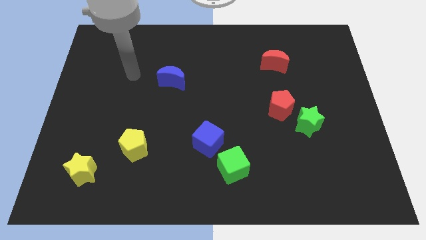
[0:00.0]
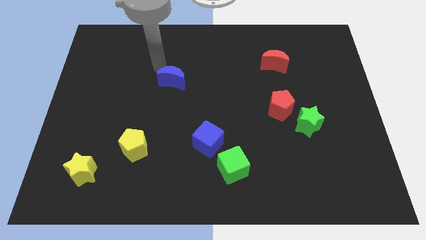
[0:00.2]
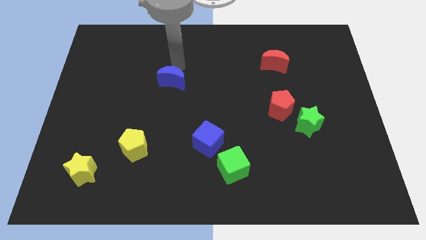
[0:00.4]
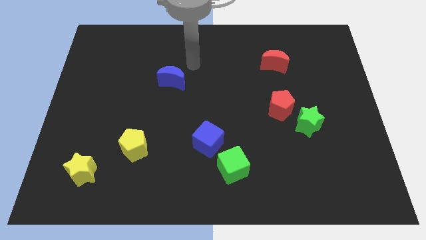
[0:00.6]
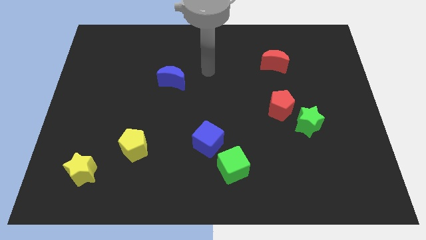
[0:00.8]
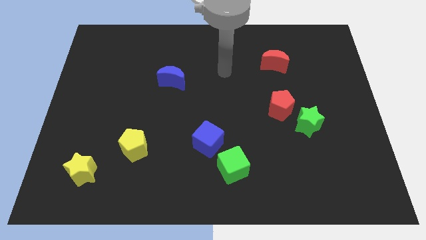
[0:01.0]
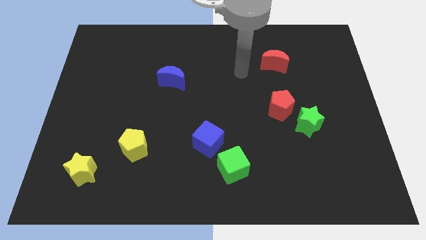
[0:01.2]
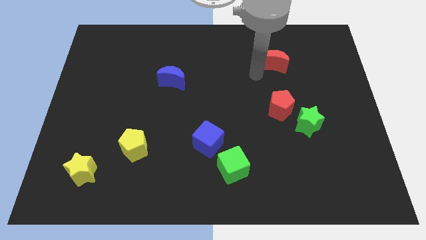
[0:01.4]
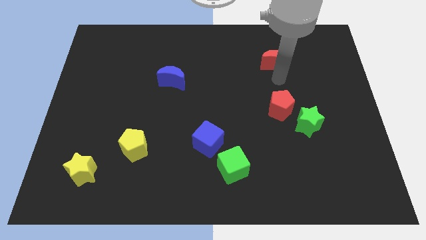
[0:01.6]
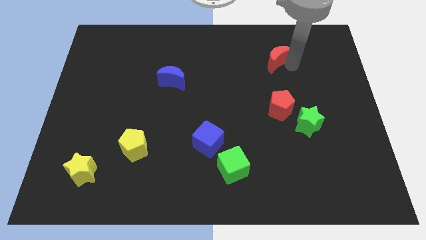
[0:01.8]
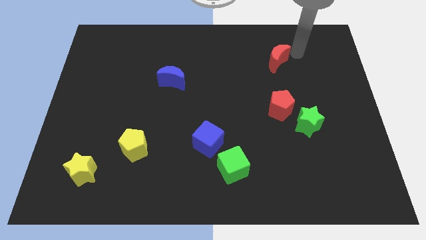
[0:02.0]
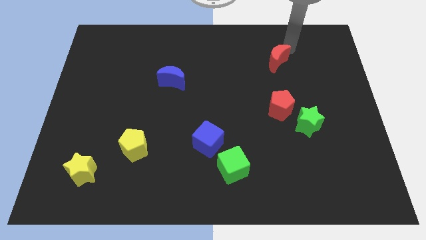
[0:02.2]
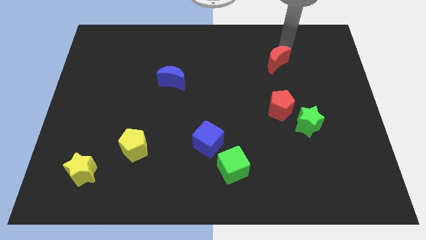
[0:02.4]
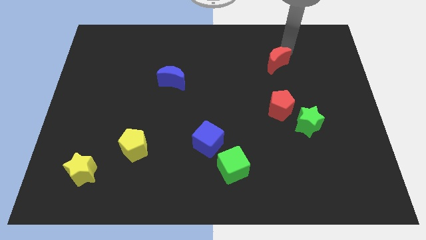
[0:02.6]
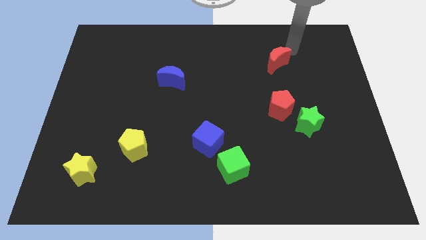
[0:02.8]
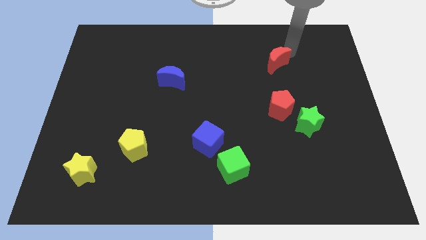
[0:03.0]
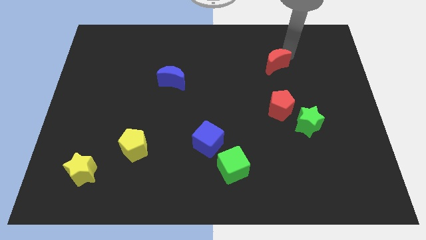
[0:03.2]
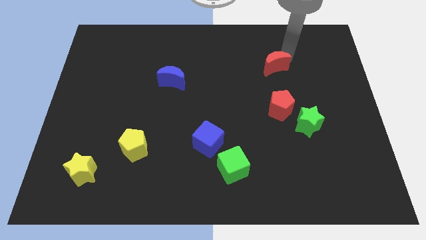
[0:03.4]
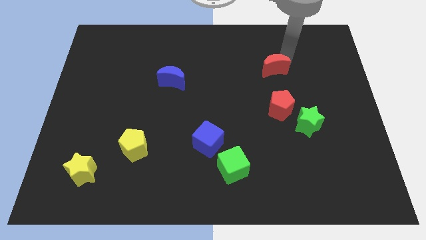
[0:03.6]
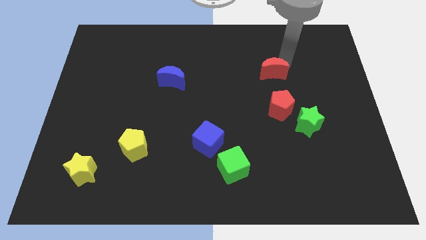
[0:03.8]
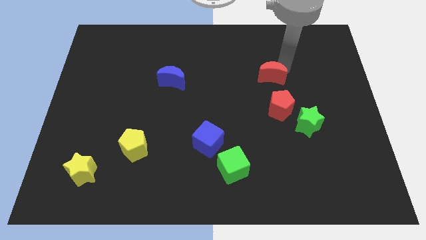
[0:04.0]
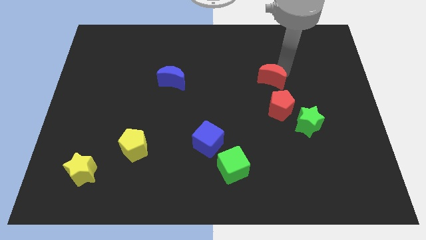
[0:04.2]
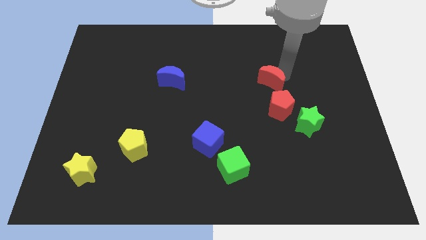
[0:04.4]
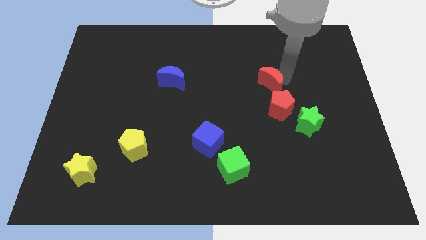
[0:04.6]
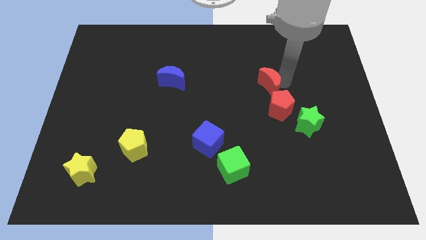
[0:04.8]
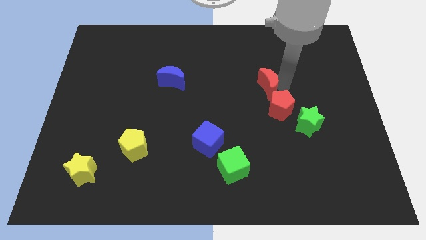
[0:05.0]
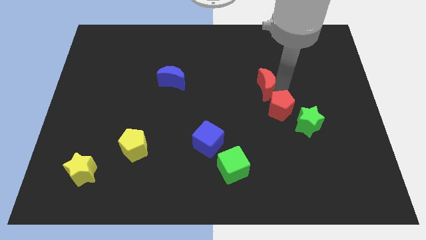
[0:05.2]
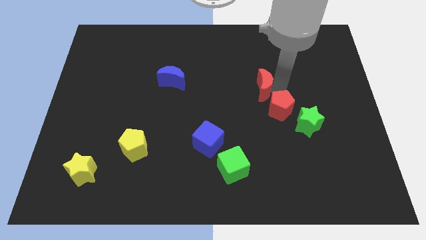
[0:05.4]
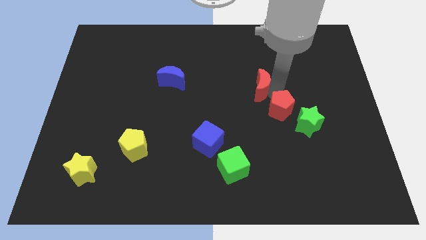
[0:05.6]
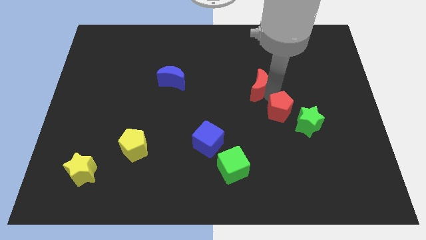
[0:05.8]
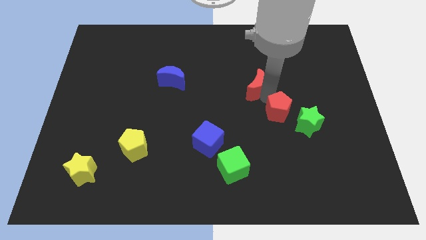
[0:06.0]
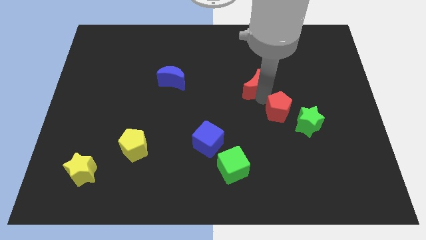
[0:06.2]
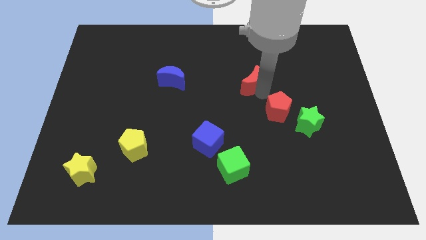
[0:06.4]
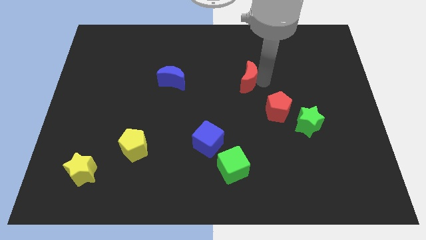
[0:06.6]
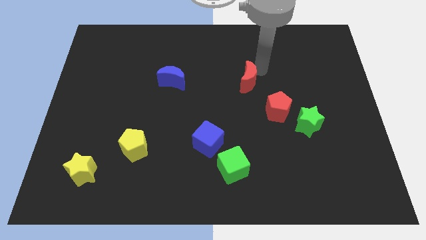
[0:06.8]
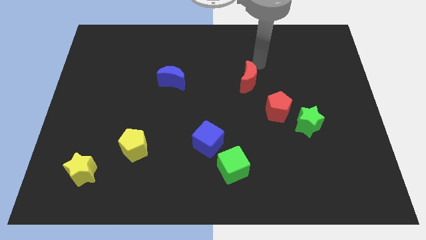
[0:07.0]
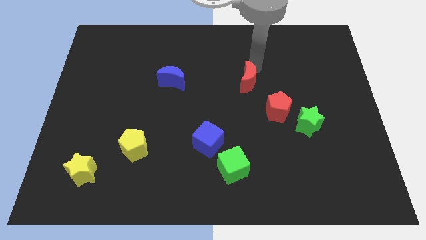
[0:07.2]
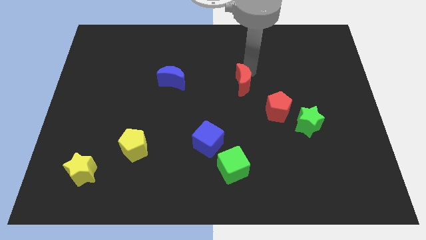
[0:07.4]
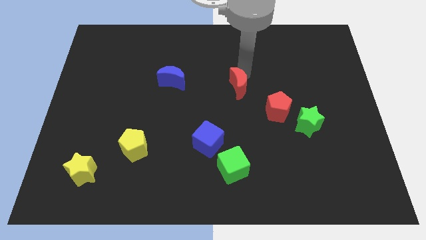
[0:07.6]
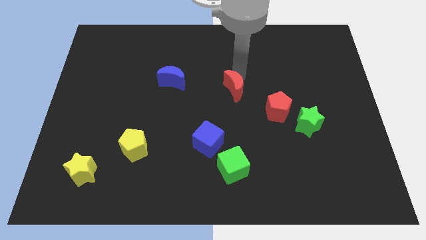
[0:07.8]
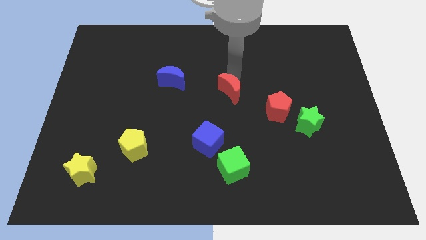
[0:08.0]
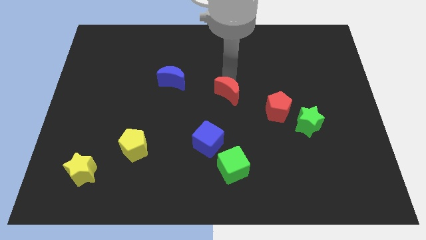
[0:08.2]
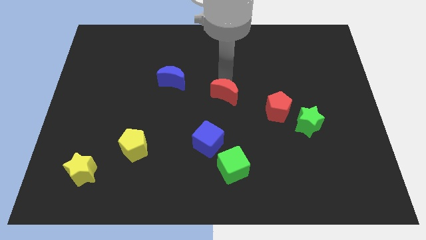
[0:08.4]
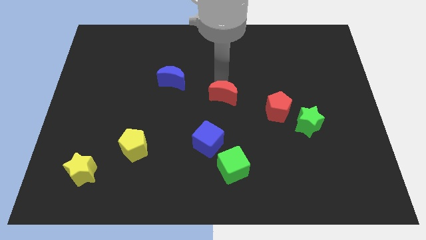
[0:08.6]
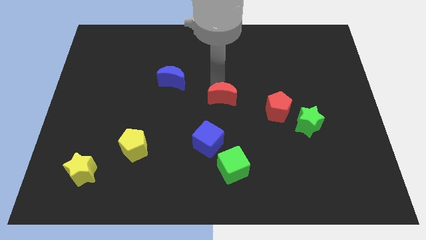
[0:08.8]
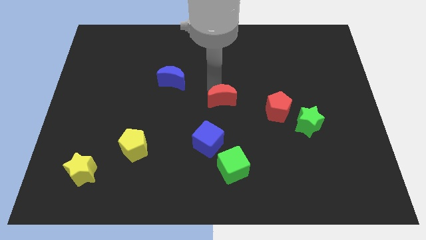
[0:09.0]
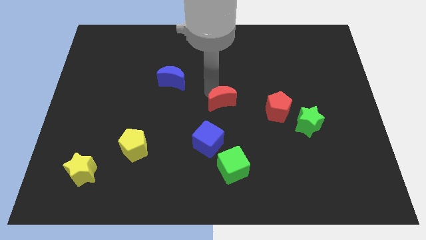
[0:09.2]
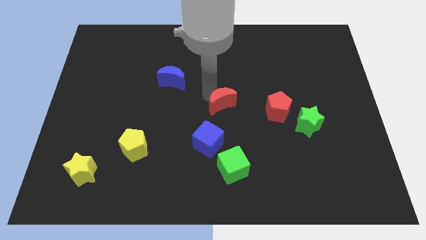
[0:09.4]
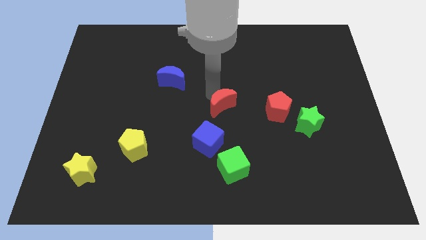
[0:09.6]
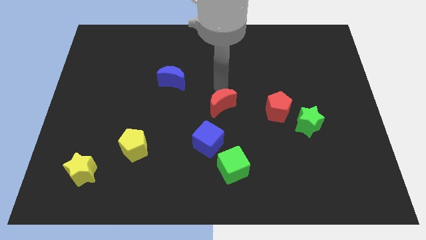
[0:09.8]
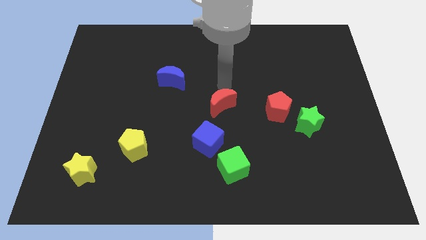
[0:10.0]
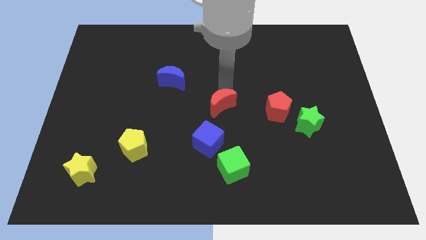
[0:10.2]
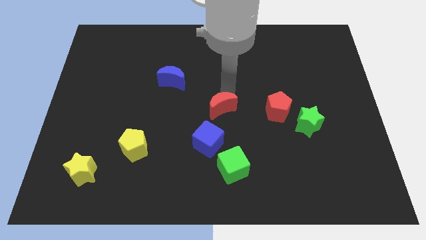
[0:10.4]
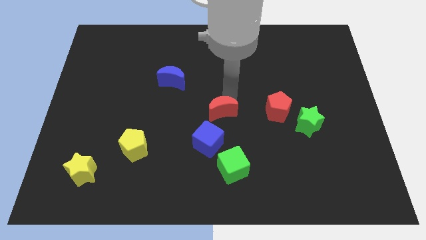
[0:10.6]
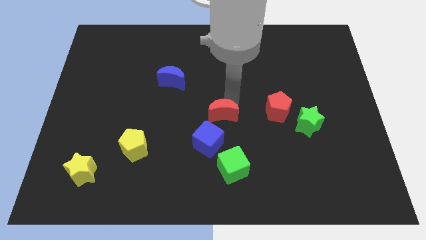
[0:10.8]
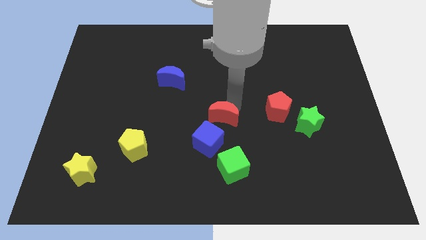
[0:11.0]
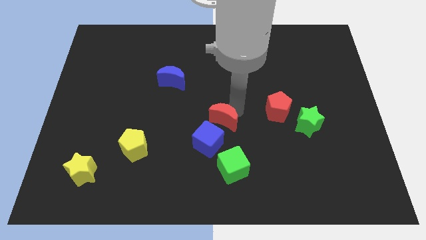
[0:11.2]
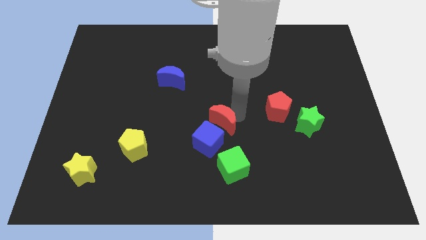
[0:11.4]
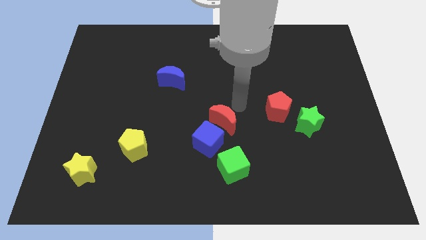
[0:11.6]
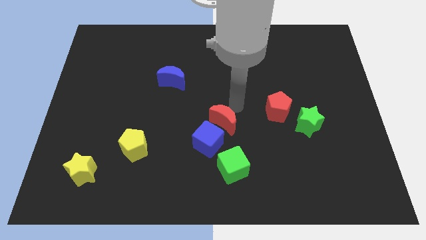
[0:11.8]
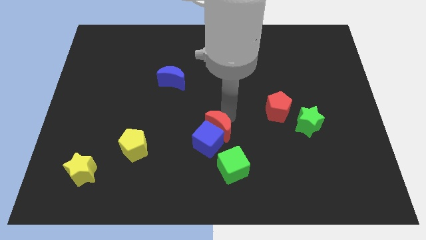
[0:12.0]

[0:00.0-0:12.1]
move the red moon towards the blue cube
